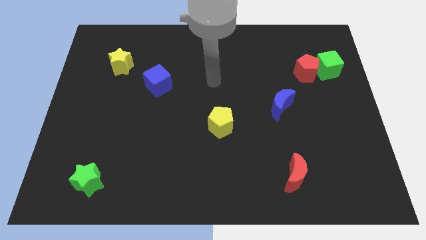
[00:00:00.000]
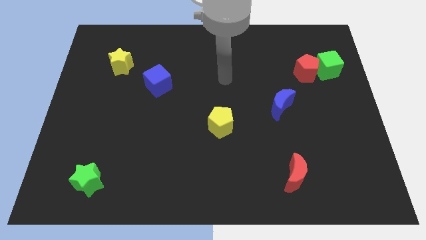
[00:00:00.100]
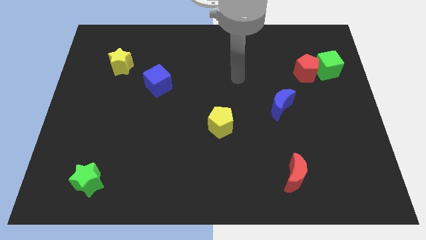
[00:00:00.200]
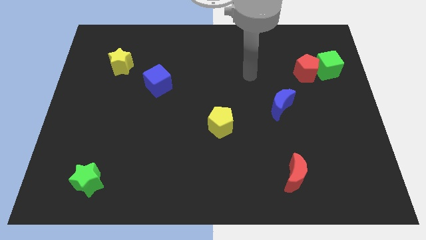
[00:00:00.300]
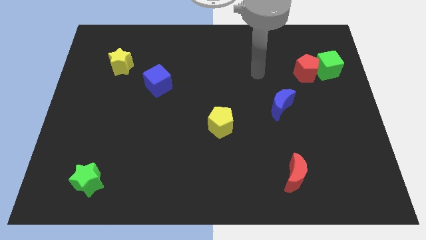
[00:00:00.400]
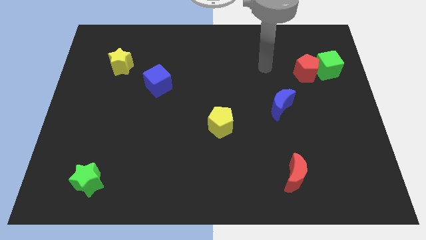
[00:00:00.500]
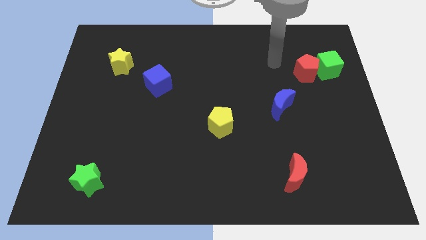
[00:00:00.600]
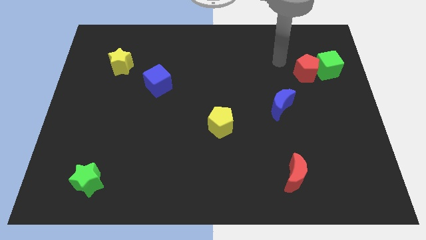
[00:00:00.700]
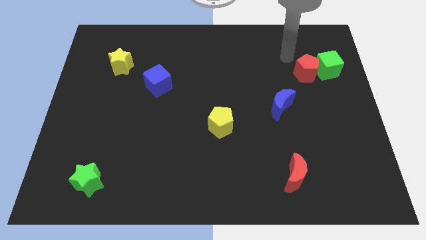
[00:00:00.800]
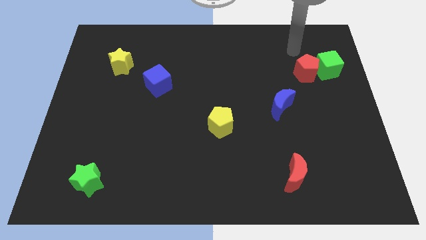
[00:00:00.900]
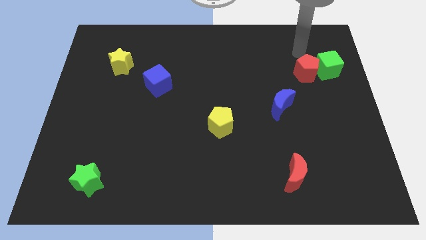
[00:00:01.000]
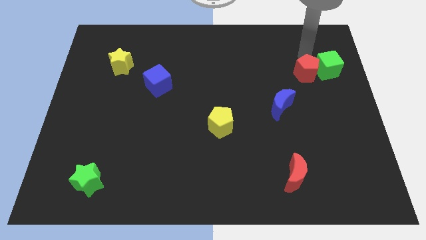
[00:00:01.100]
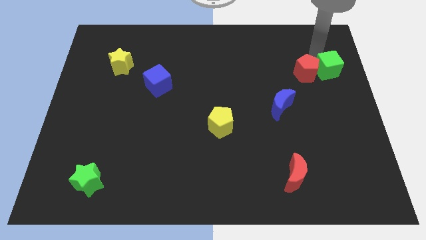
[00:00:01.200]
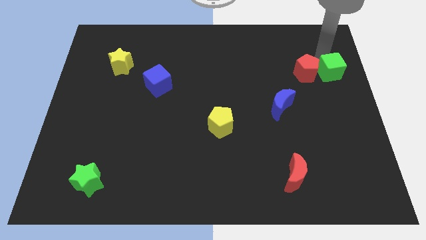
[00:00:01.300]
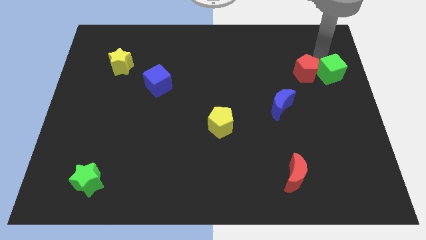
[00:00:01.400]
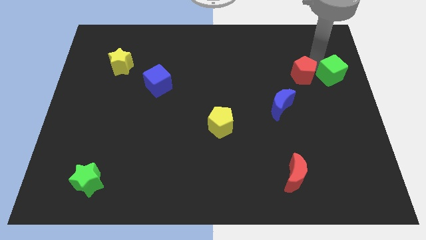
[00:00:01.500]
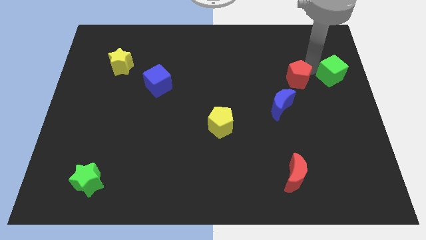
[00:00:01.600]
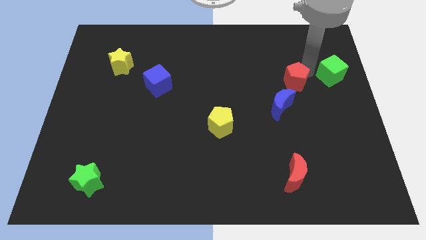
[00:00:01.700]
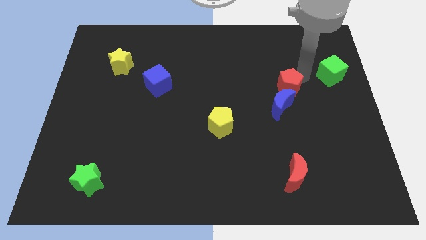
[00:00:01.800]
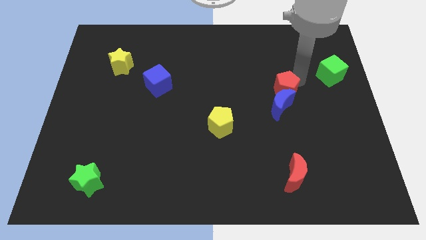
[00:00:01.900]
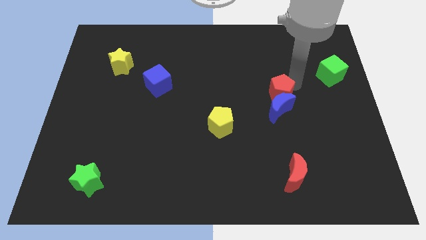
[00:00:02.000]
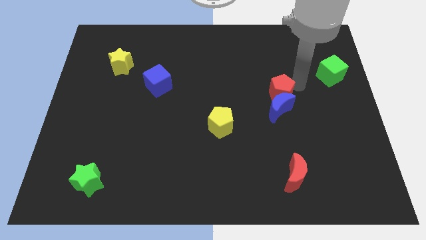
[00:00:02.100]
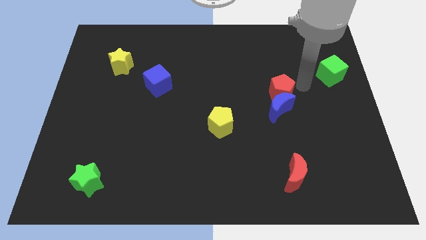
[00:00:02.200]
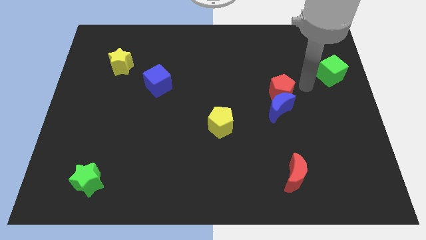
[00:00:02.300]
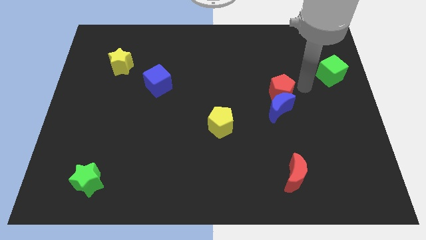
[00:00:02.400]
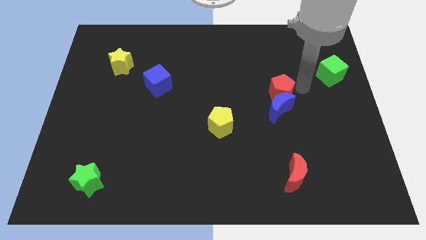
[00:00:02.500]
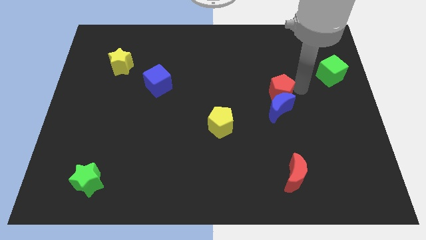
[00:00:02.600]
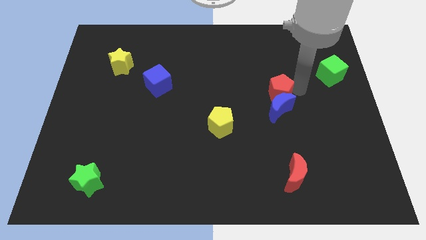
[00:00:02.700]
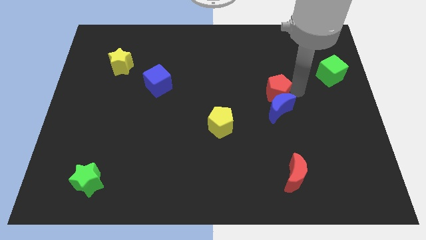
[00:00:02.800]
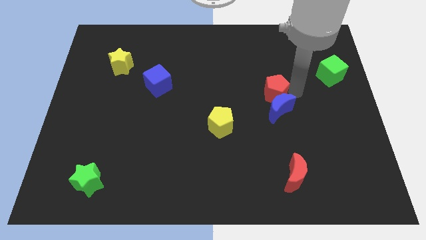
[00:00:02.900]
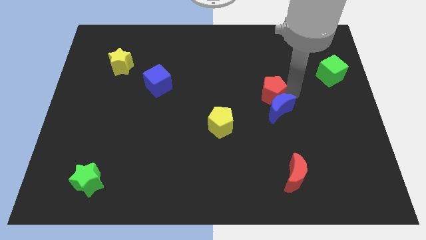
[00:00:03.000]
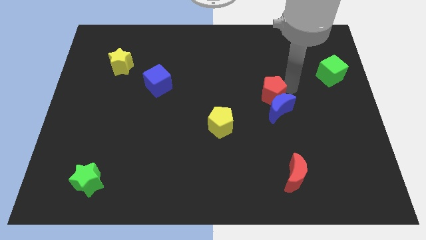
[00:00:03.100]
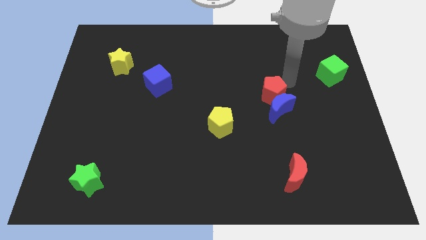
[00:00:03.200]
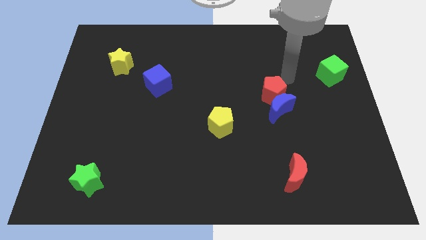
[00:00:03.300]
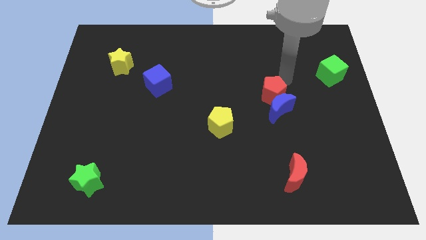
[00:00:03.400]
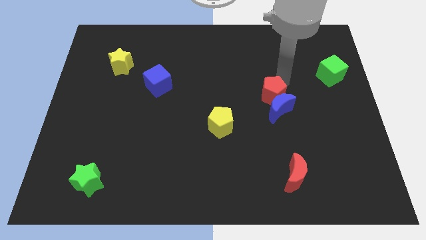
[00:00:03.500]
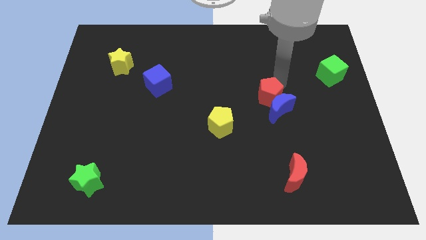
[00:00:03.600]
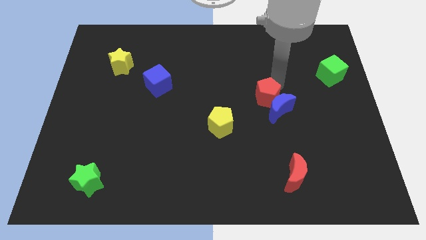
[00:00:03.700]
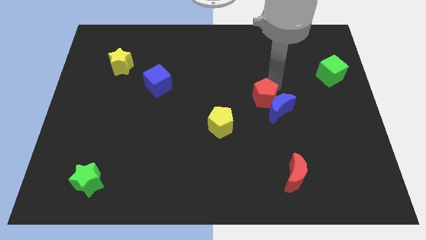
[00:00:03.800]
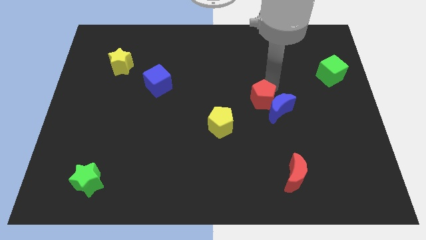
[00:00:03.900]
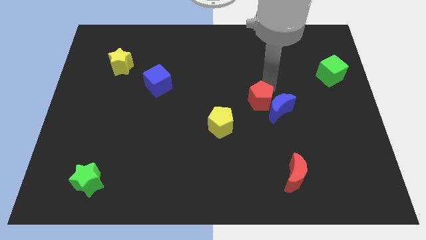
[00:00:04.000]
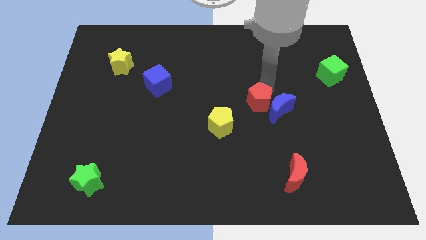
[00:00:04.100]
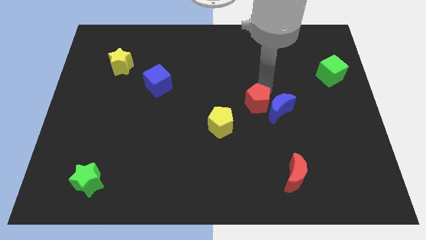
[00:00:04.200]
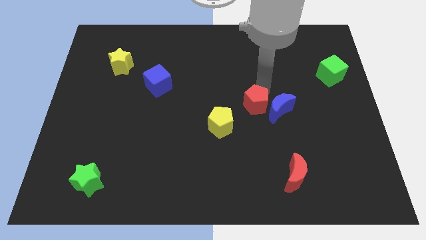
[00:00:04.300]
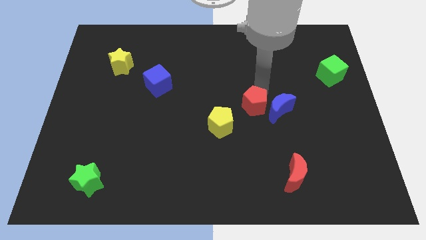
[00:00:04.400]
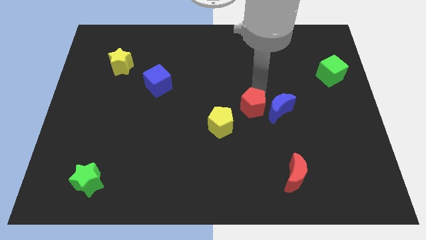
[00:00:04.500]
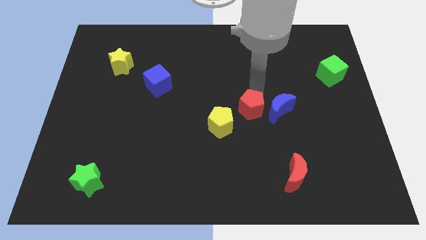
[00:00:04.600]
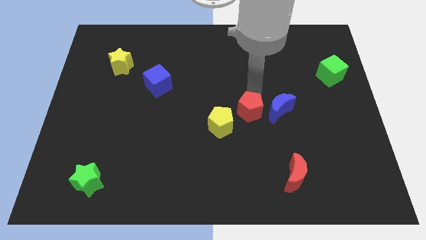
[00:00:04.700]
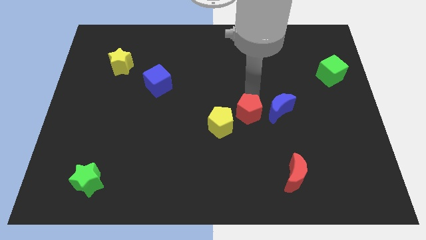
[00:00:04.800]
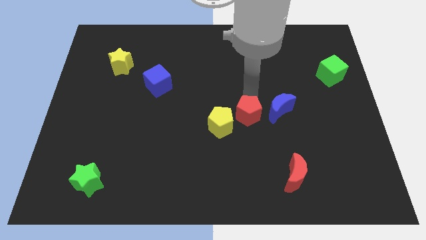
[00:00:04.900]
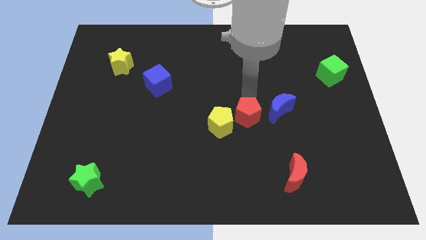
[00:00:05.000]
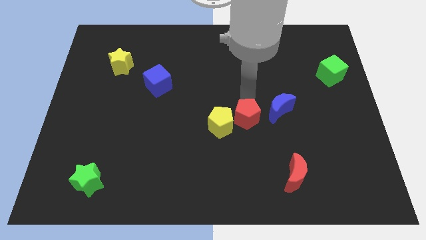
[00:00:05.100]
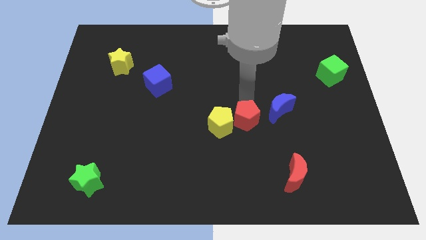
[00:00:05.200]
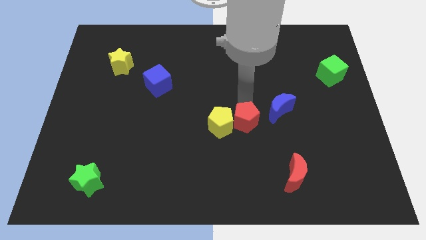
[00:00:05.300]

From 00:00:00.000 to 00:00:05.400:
slide the red pentagon to the bottom right of the yellow pentagon

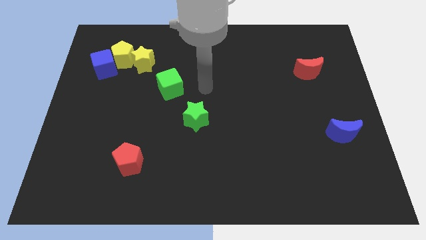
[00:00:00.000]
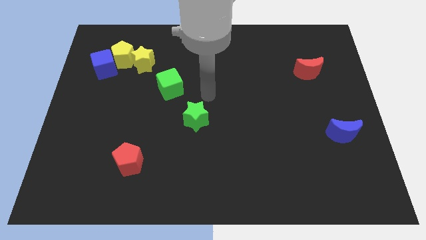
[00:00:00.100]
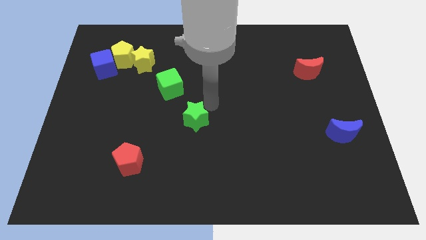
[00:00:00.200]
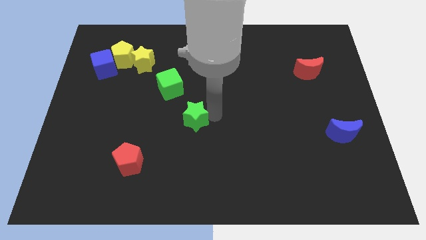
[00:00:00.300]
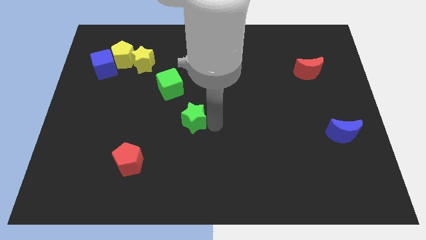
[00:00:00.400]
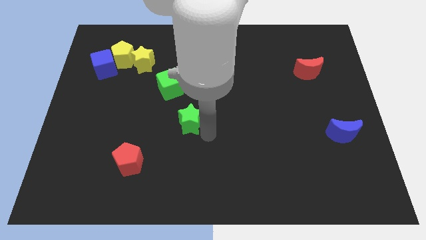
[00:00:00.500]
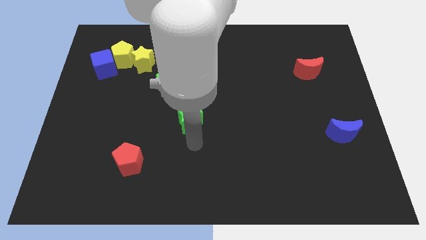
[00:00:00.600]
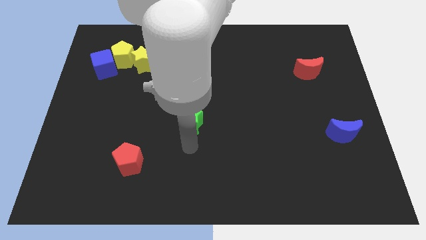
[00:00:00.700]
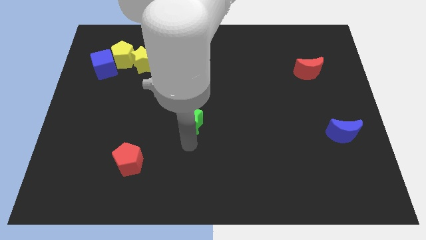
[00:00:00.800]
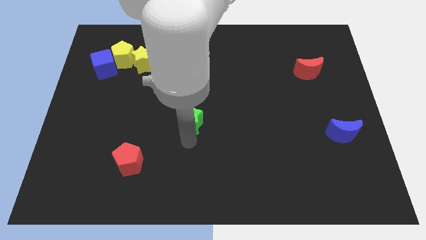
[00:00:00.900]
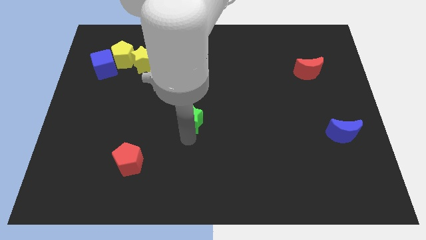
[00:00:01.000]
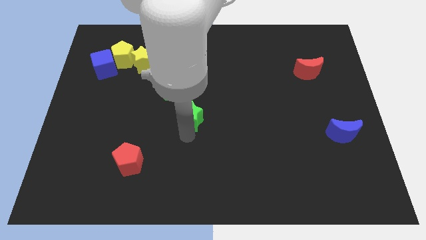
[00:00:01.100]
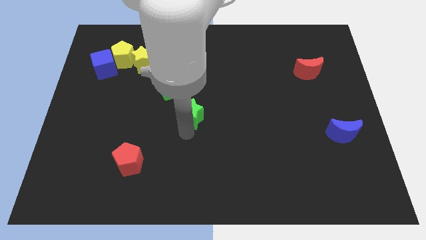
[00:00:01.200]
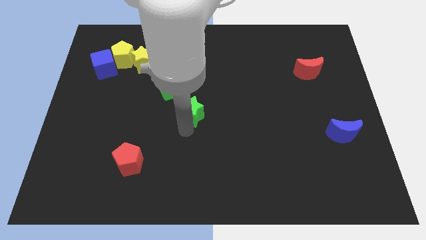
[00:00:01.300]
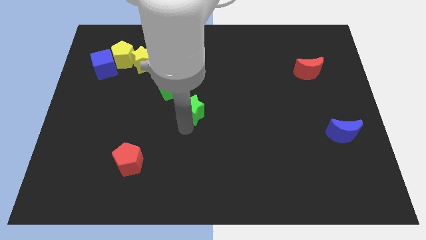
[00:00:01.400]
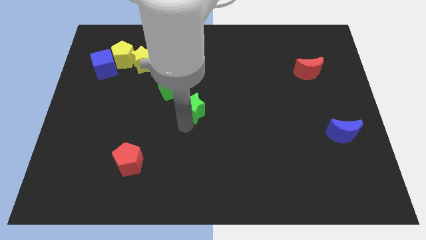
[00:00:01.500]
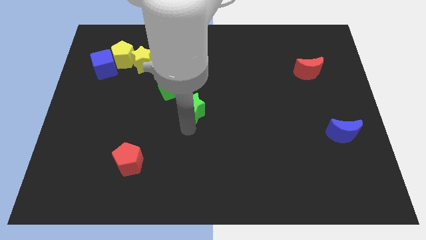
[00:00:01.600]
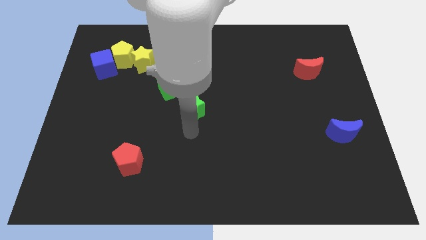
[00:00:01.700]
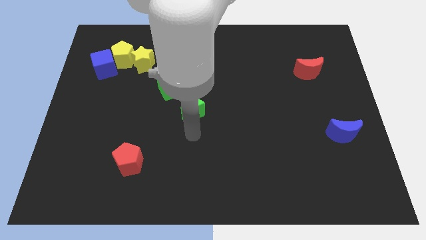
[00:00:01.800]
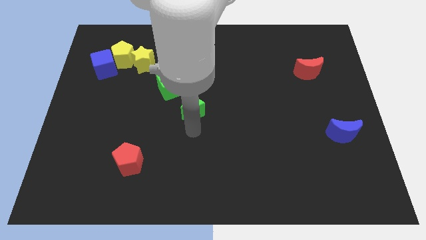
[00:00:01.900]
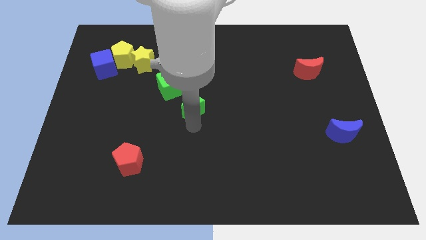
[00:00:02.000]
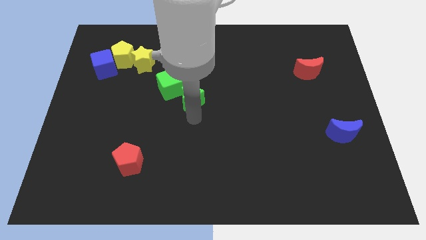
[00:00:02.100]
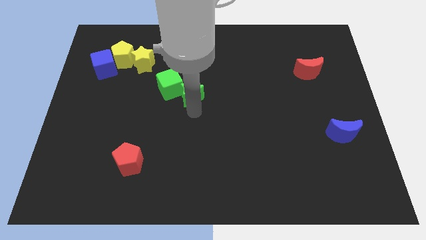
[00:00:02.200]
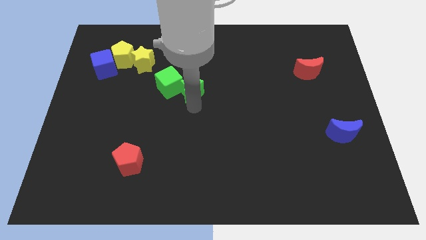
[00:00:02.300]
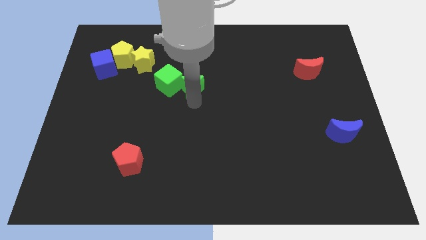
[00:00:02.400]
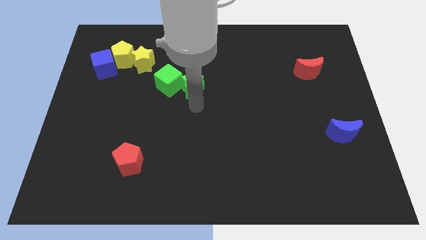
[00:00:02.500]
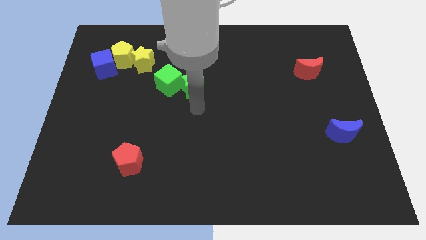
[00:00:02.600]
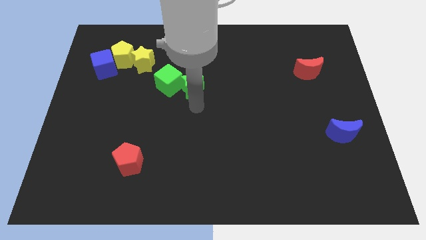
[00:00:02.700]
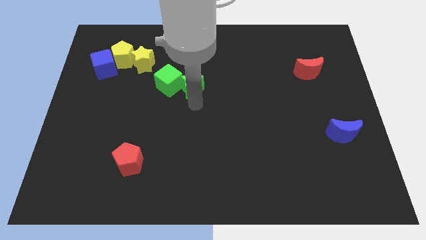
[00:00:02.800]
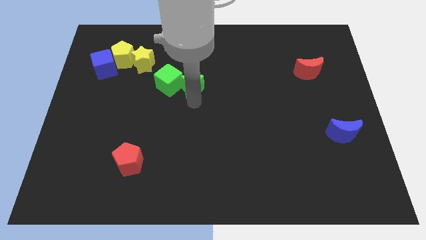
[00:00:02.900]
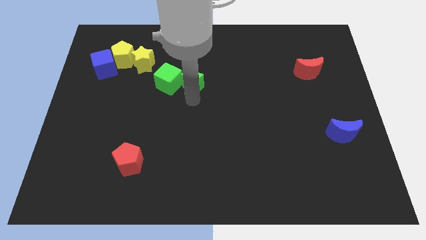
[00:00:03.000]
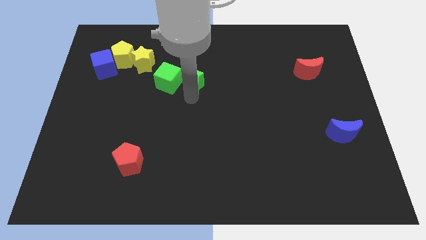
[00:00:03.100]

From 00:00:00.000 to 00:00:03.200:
move the green star to the top right side of the green cube
